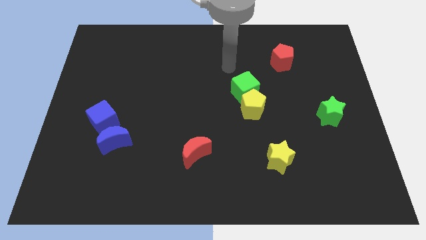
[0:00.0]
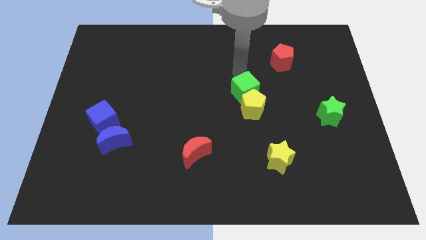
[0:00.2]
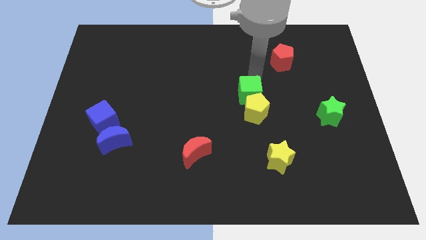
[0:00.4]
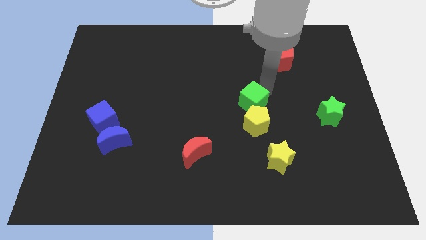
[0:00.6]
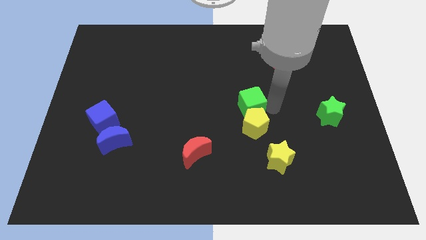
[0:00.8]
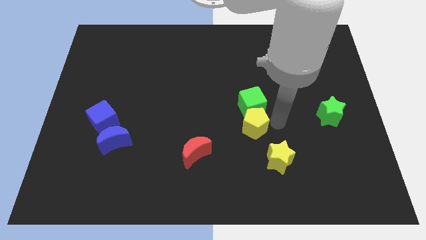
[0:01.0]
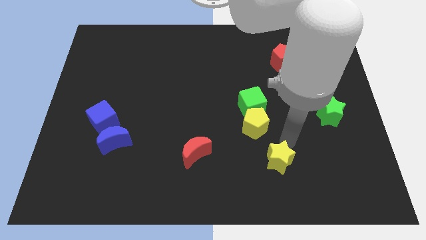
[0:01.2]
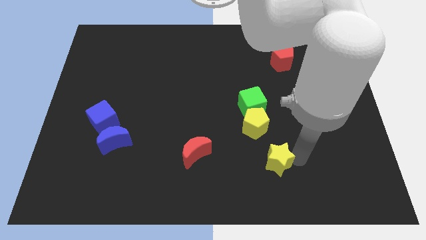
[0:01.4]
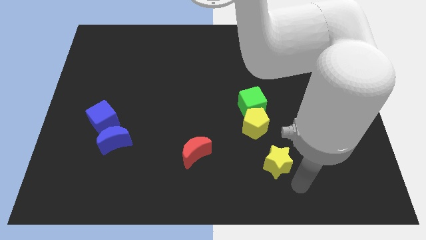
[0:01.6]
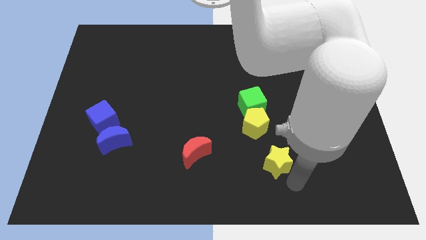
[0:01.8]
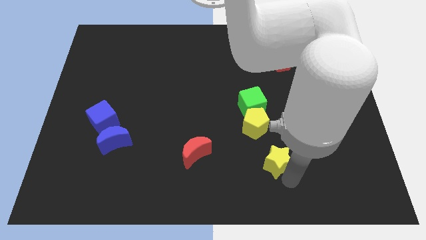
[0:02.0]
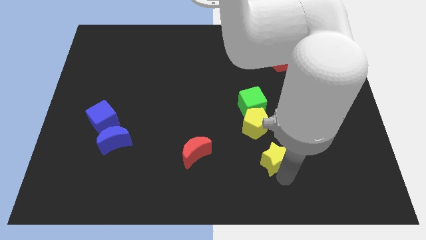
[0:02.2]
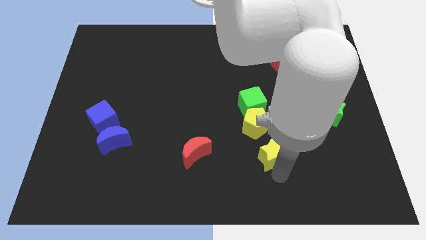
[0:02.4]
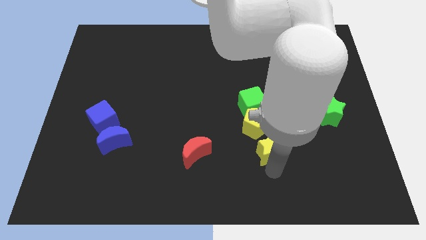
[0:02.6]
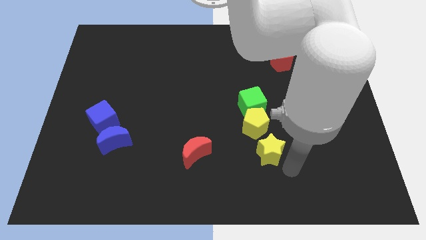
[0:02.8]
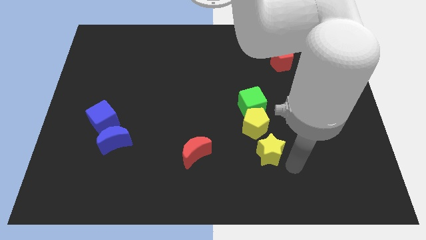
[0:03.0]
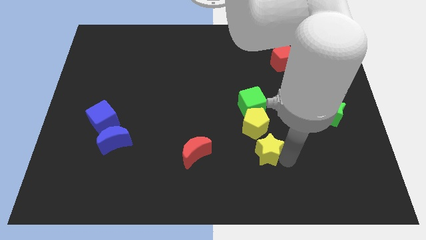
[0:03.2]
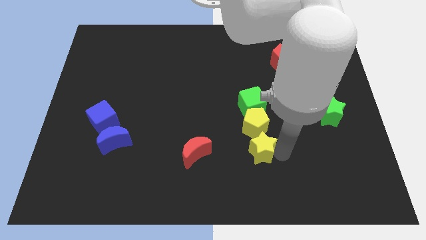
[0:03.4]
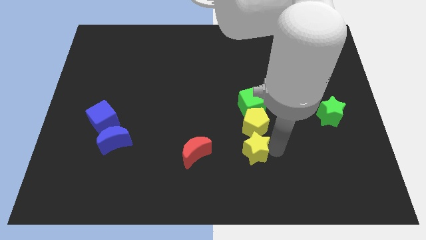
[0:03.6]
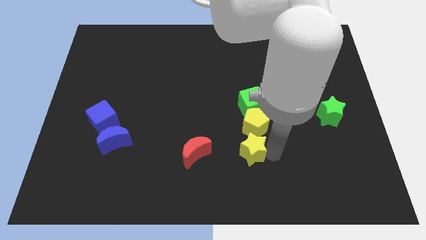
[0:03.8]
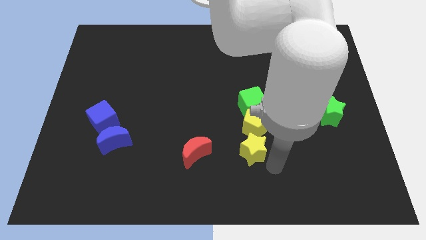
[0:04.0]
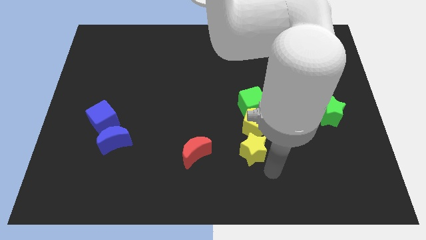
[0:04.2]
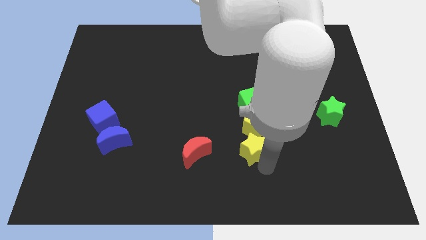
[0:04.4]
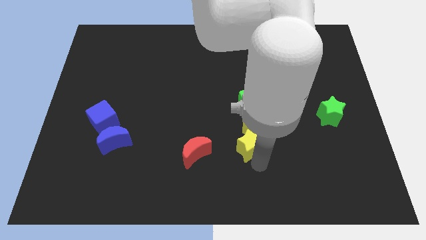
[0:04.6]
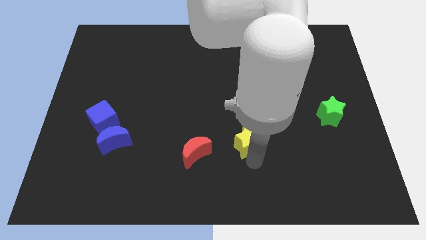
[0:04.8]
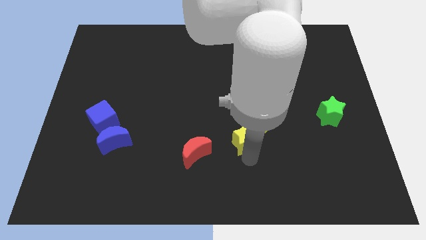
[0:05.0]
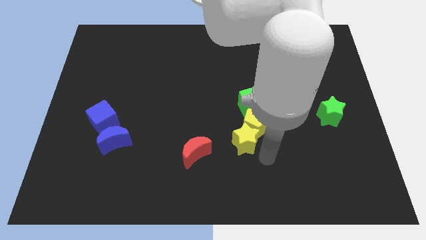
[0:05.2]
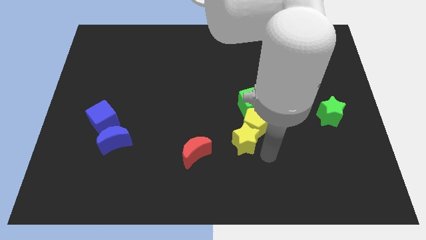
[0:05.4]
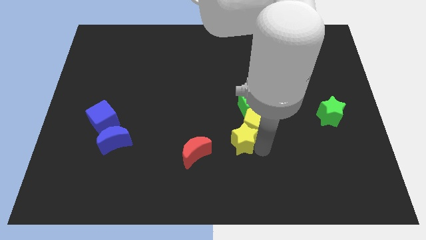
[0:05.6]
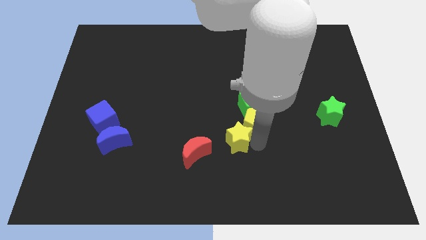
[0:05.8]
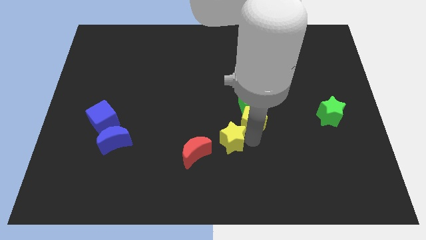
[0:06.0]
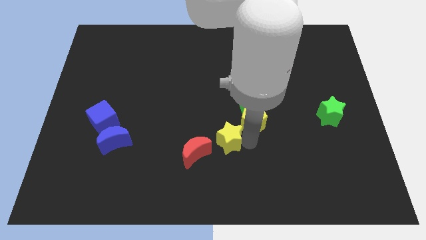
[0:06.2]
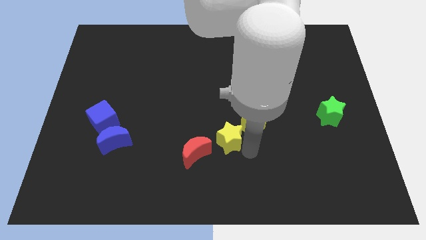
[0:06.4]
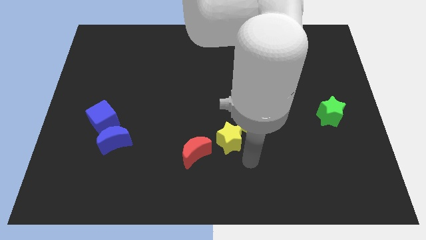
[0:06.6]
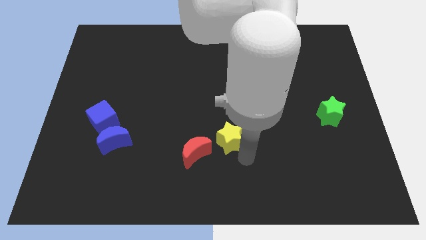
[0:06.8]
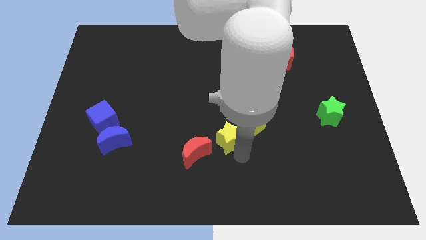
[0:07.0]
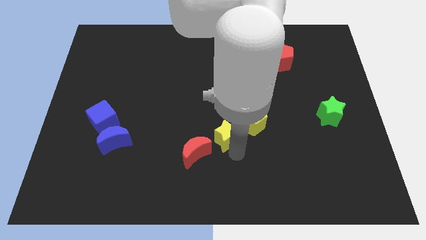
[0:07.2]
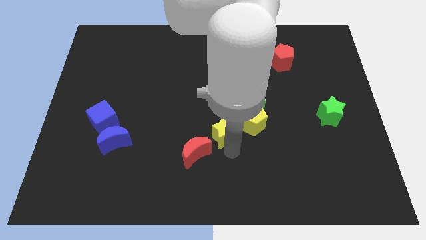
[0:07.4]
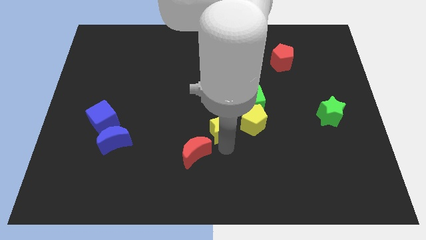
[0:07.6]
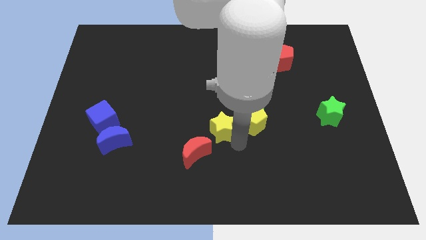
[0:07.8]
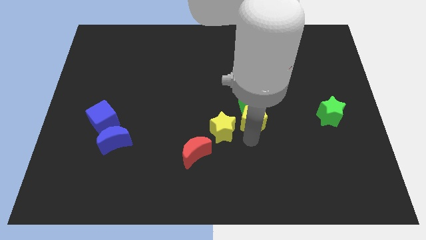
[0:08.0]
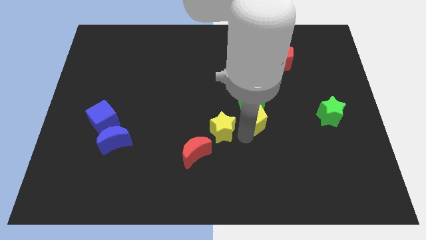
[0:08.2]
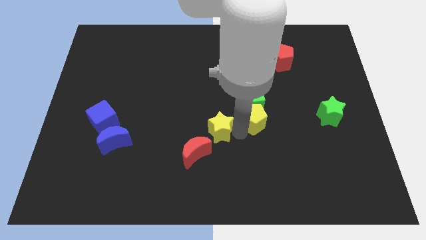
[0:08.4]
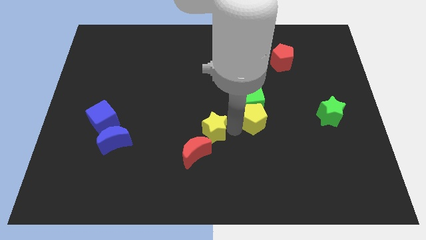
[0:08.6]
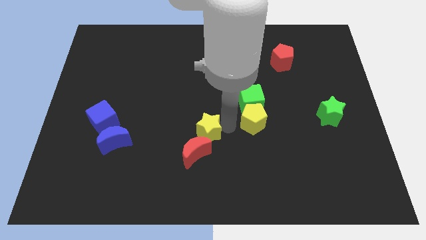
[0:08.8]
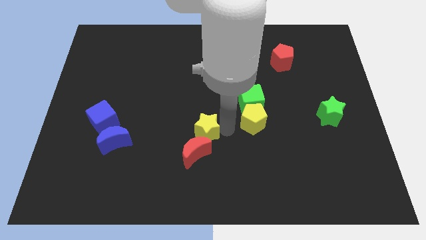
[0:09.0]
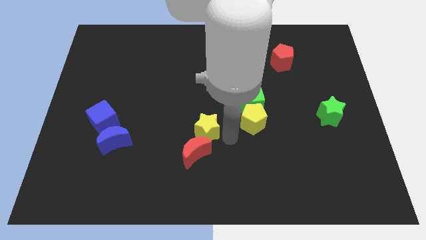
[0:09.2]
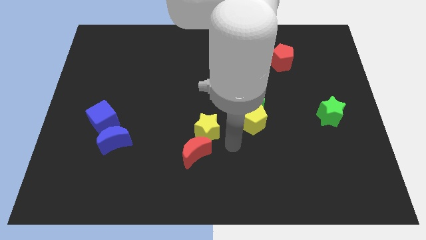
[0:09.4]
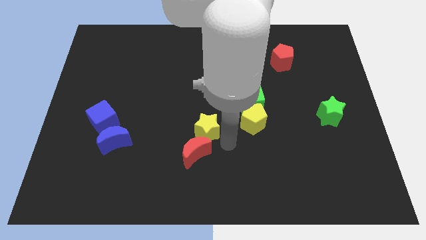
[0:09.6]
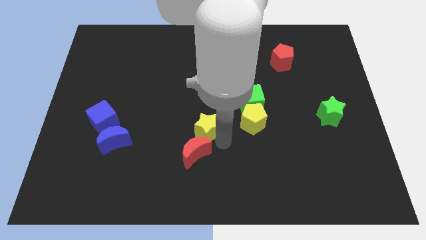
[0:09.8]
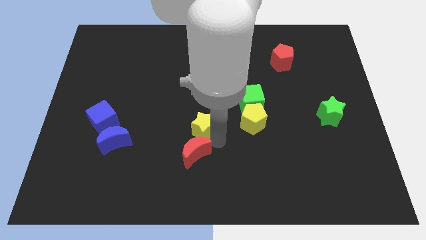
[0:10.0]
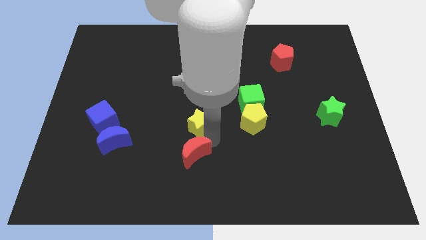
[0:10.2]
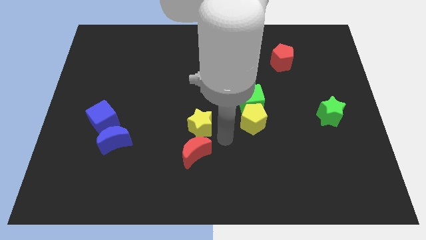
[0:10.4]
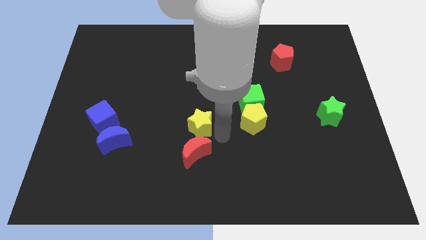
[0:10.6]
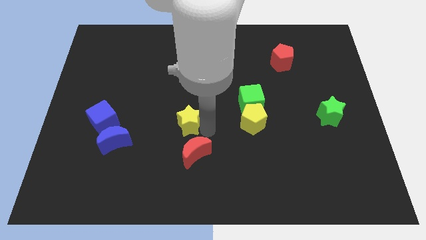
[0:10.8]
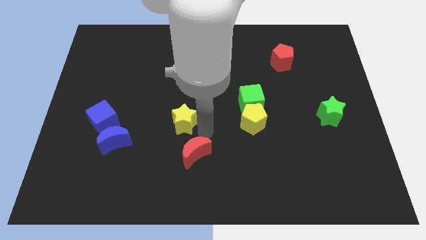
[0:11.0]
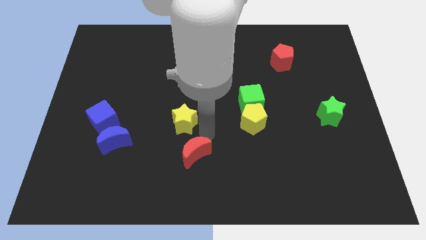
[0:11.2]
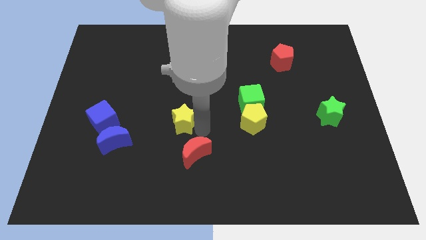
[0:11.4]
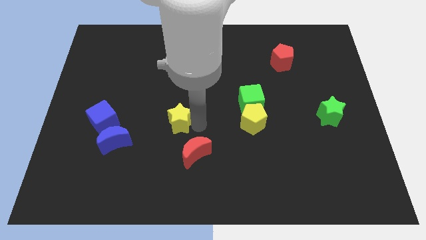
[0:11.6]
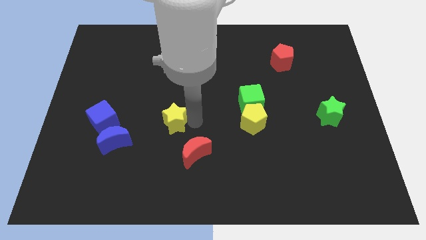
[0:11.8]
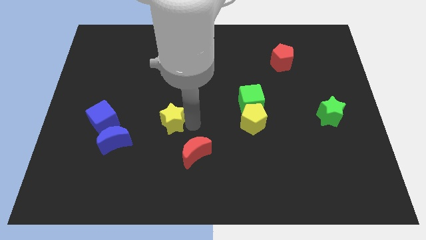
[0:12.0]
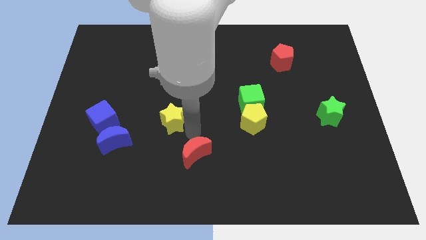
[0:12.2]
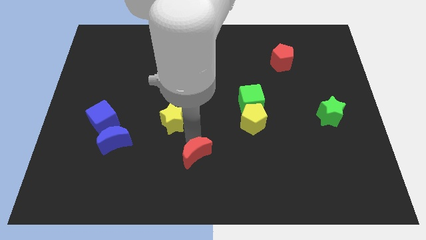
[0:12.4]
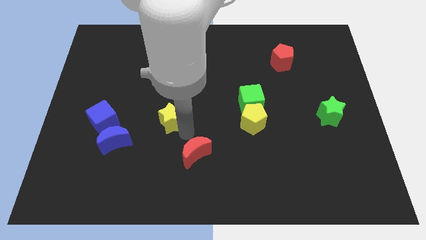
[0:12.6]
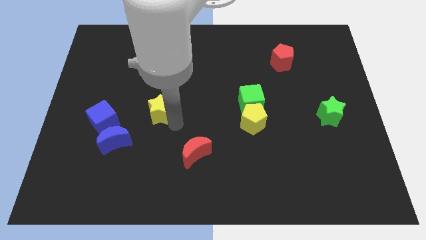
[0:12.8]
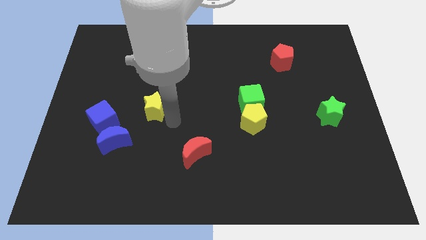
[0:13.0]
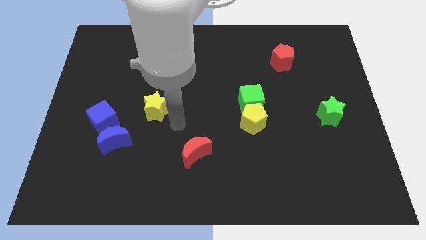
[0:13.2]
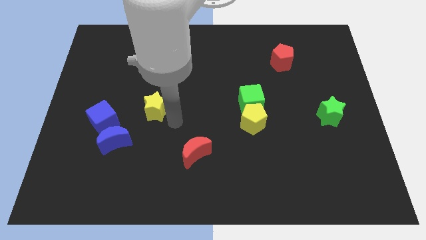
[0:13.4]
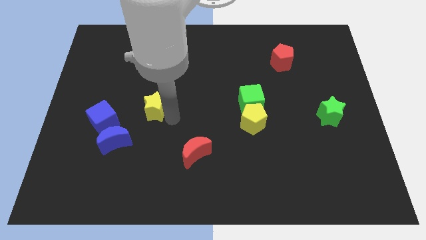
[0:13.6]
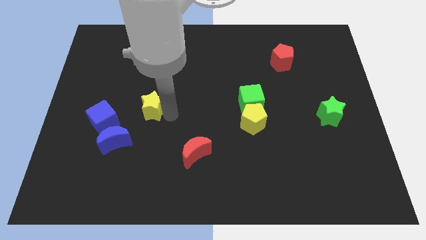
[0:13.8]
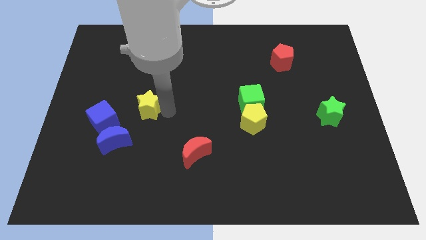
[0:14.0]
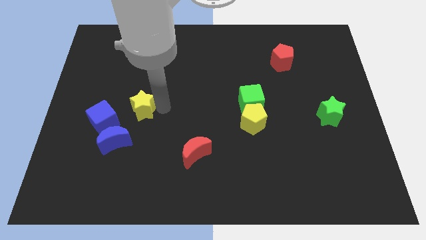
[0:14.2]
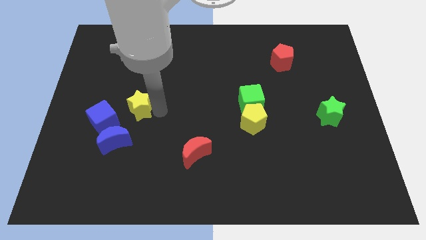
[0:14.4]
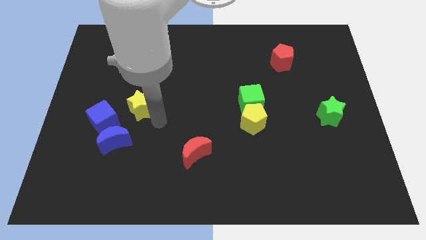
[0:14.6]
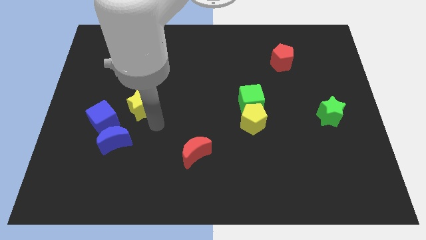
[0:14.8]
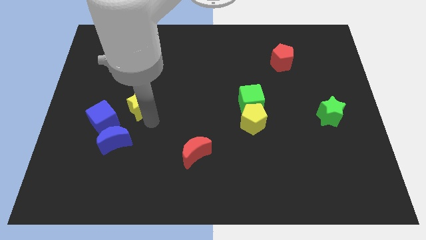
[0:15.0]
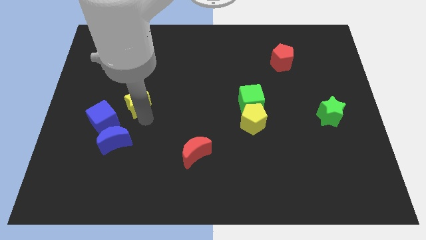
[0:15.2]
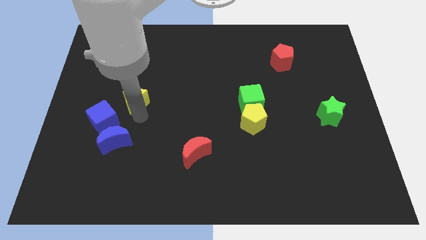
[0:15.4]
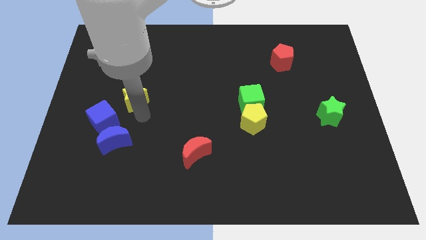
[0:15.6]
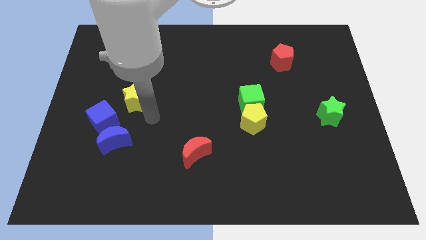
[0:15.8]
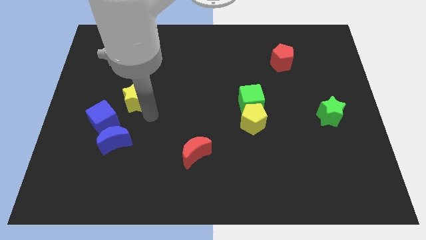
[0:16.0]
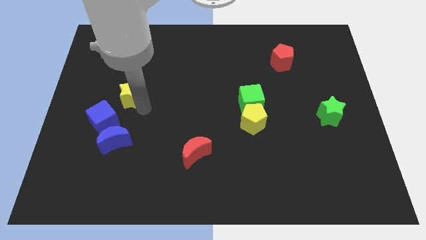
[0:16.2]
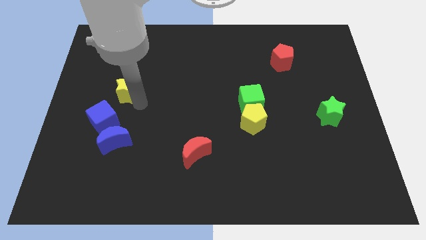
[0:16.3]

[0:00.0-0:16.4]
slide the yellow star above the blue cube
